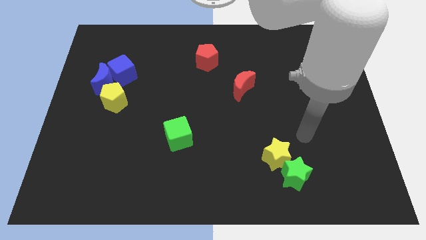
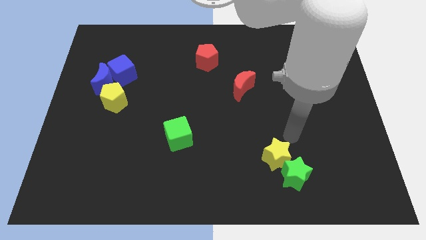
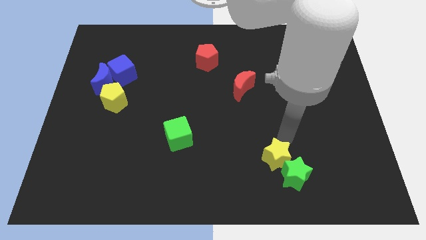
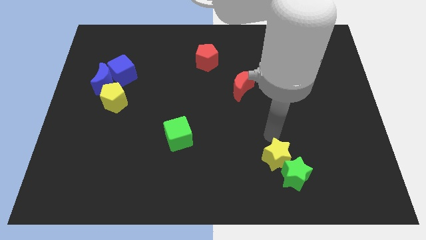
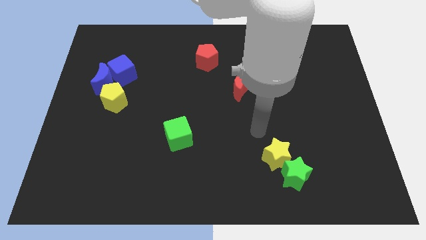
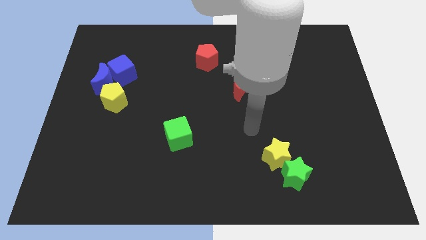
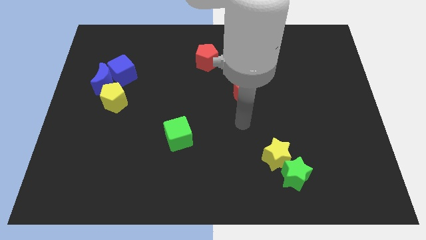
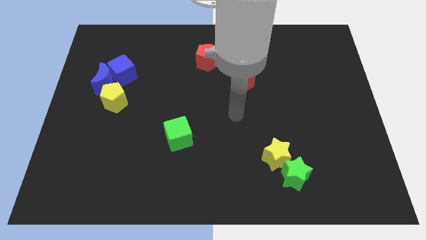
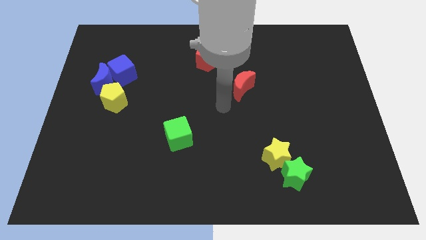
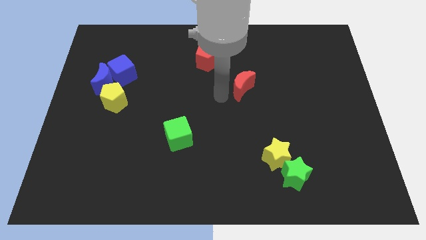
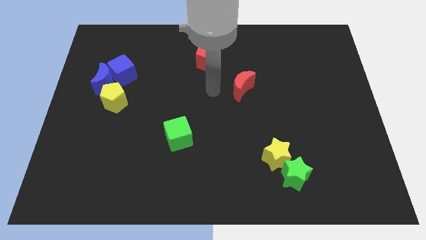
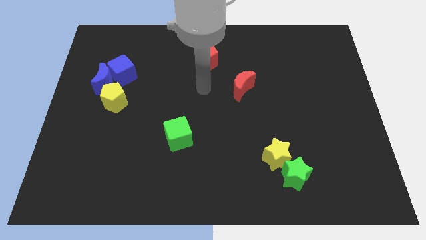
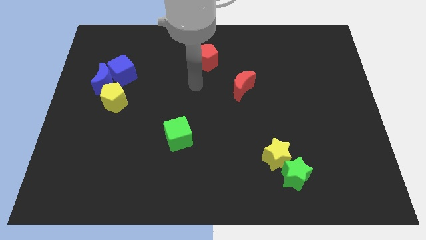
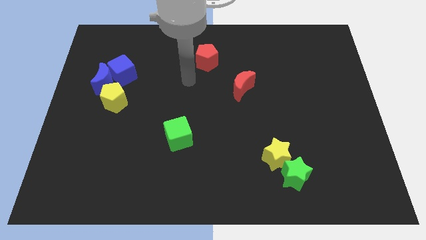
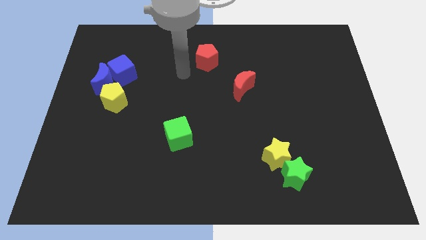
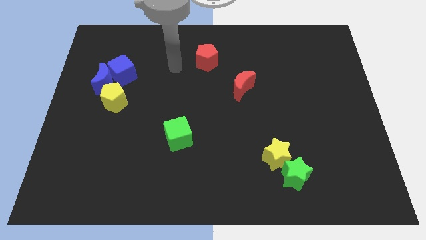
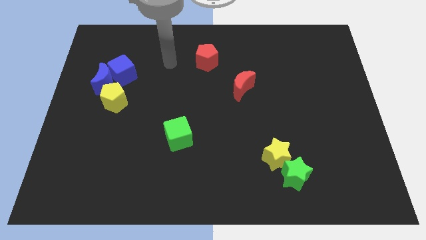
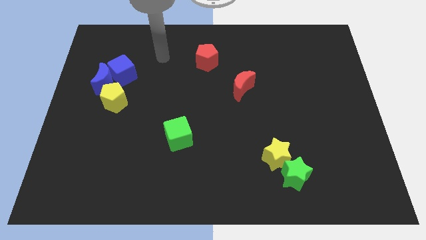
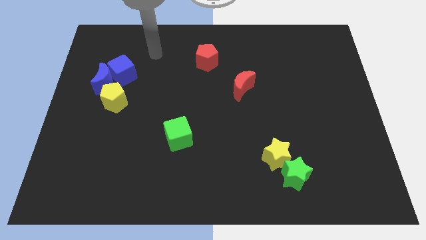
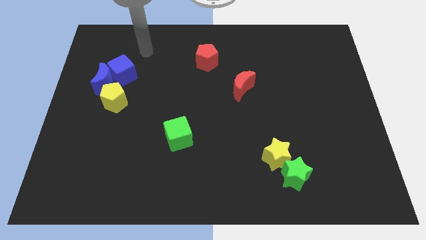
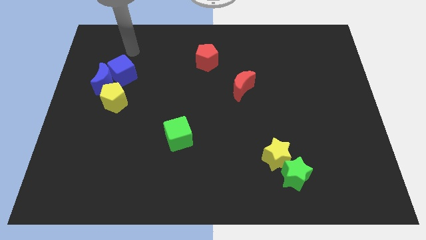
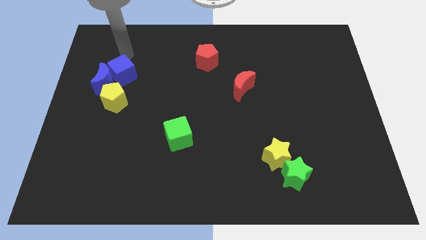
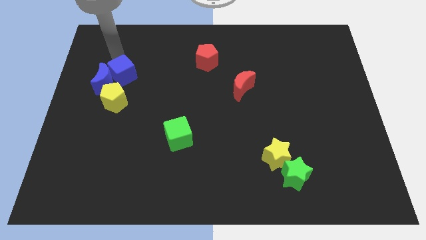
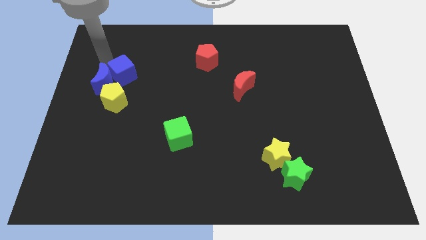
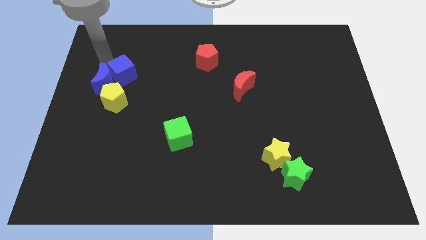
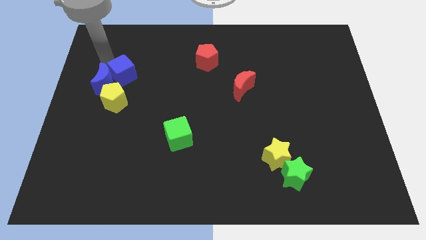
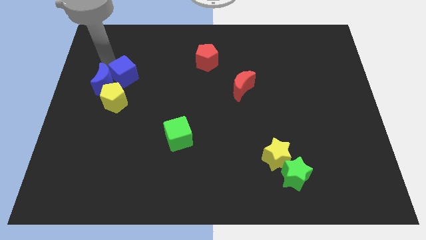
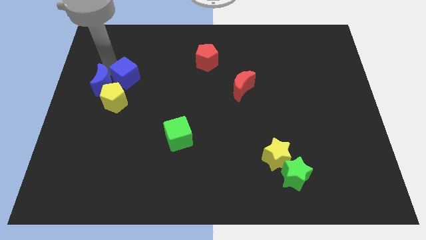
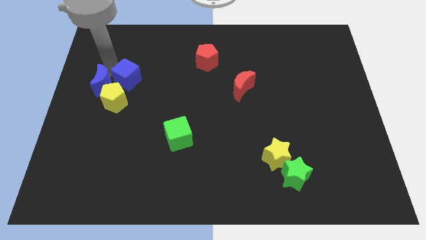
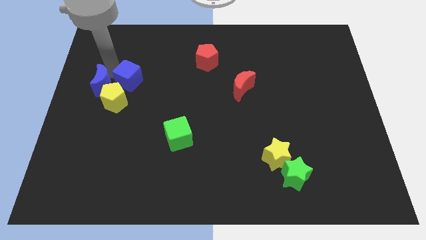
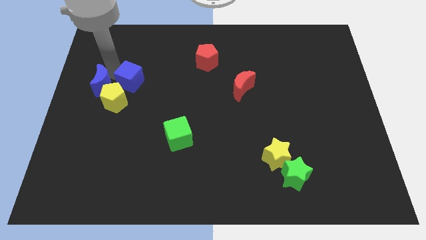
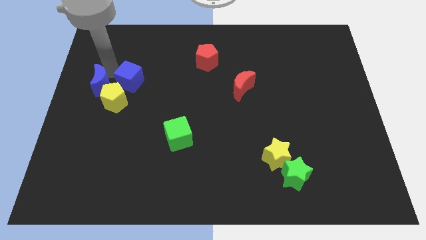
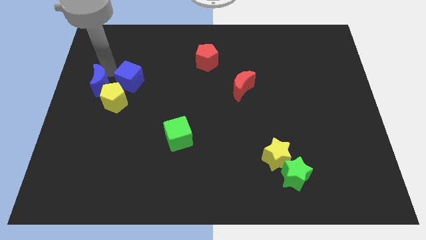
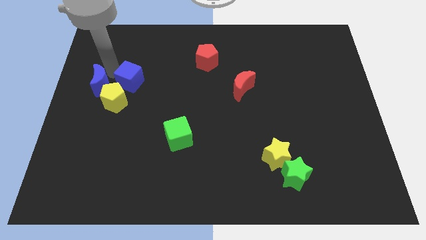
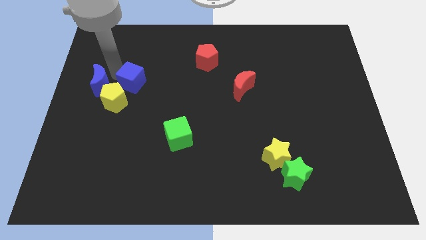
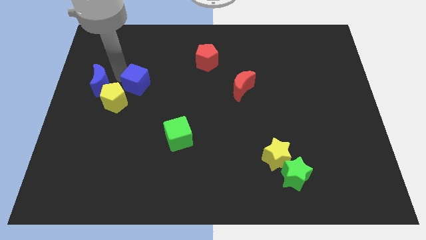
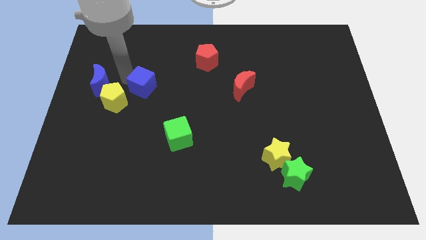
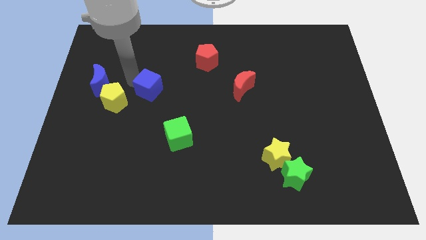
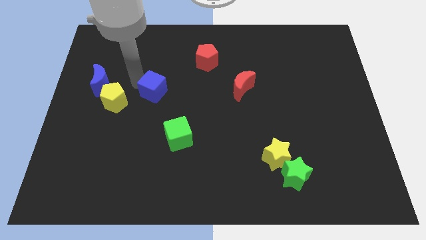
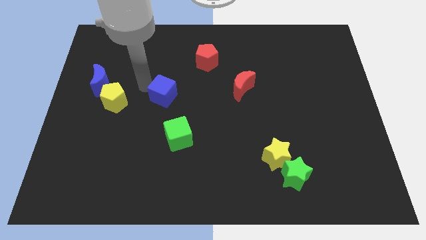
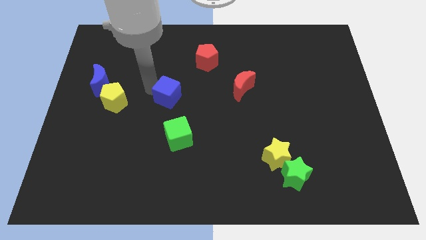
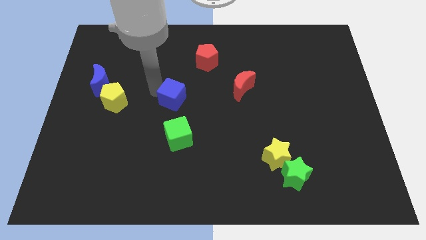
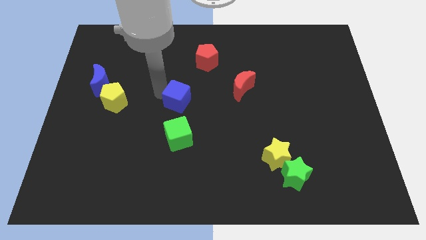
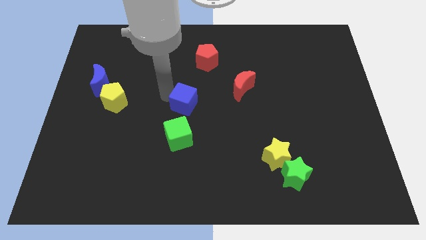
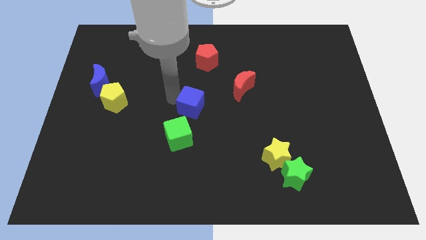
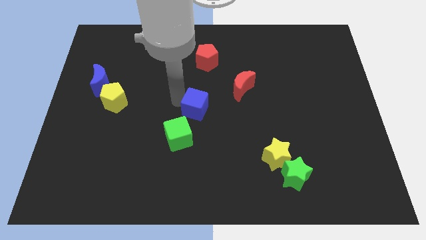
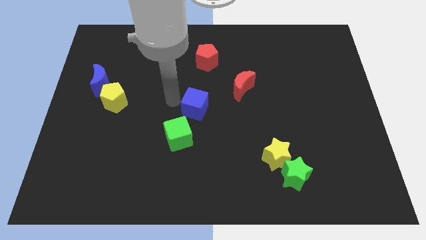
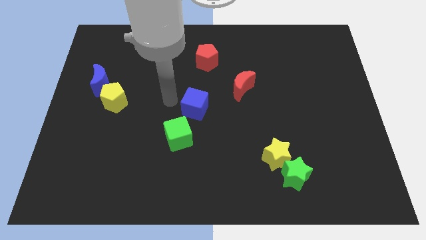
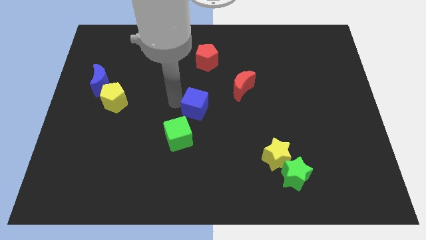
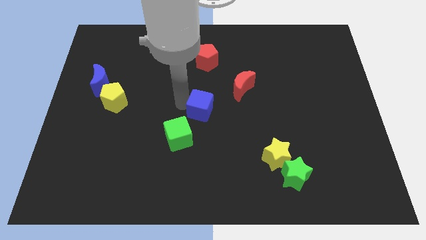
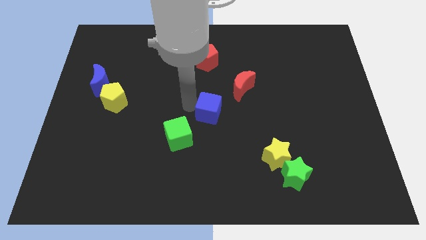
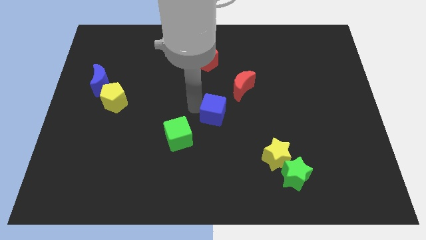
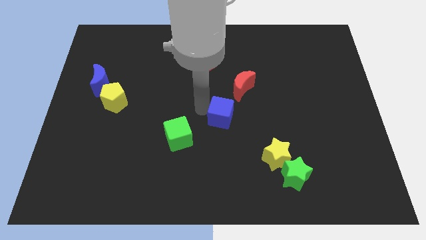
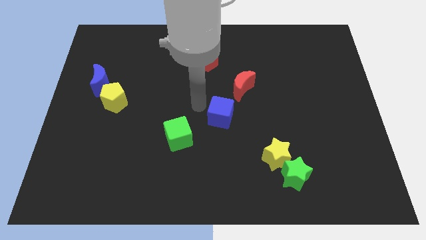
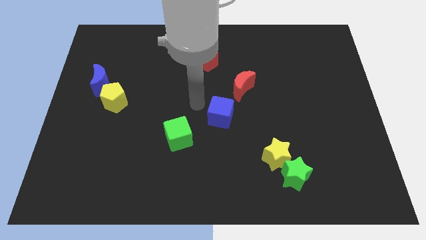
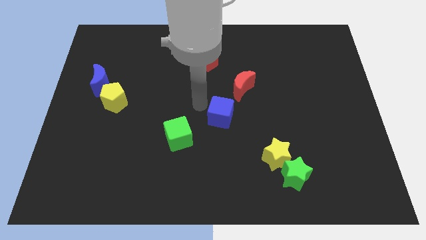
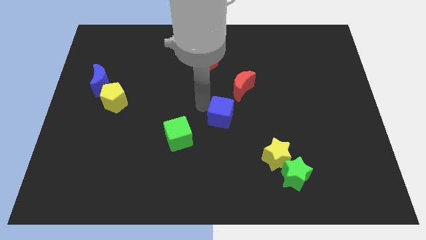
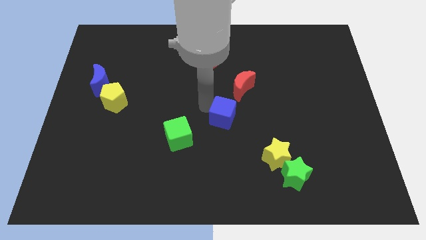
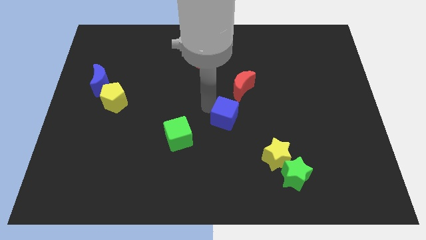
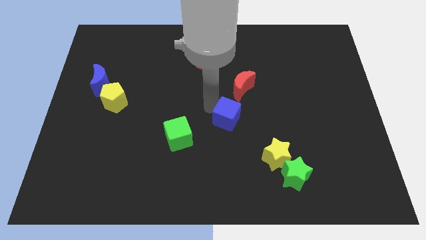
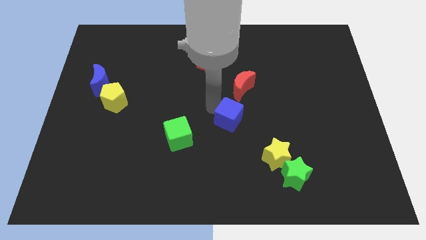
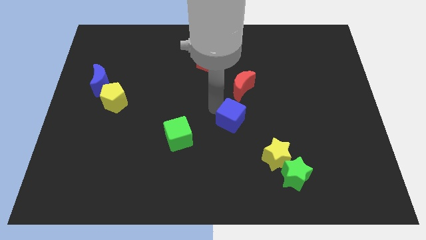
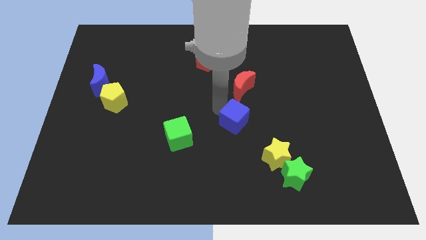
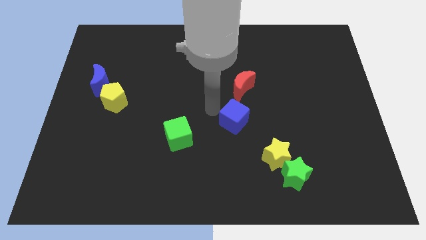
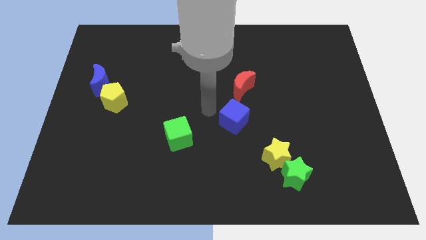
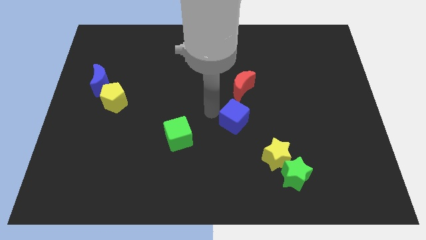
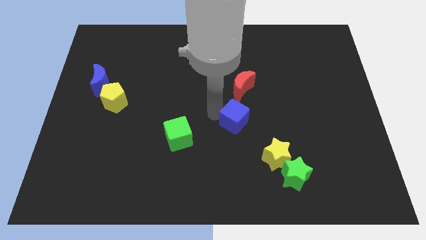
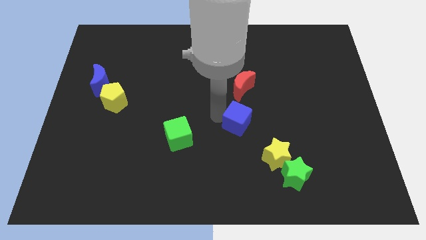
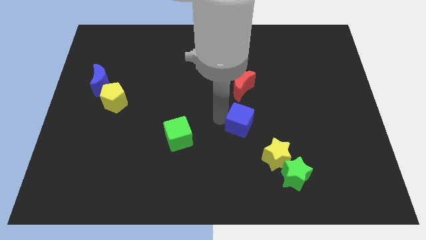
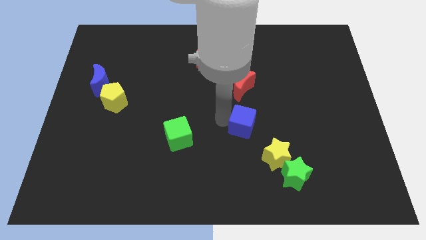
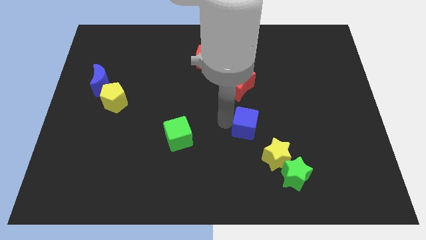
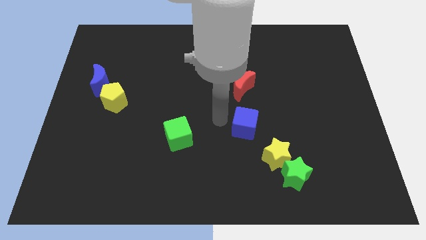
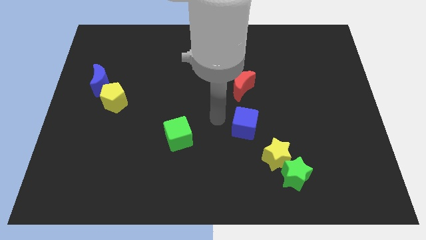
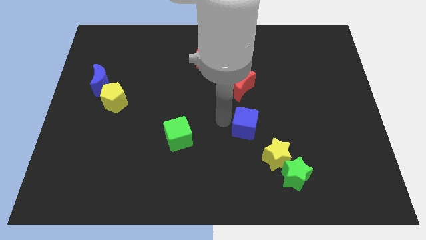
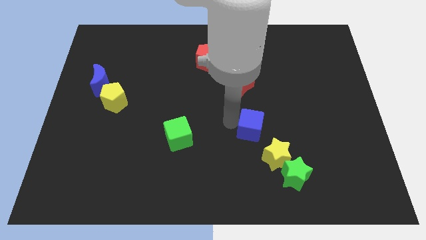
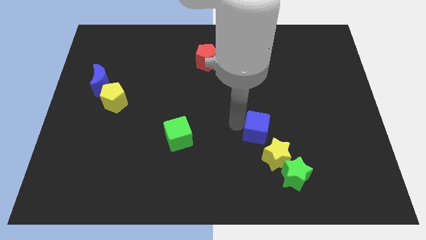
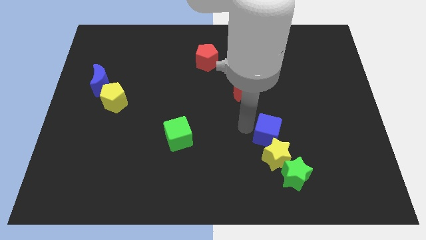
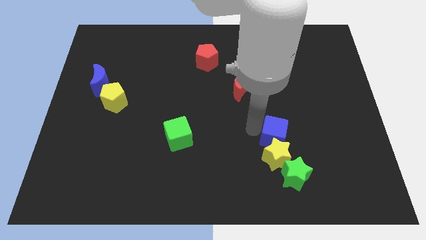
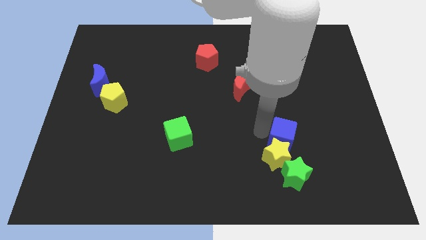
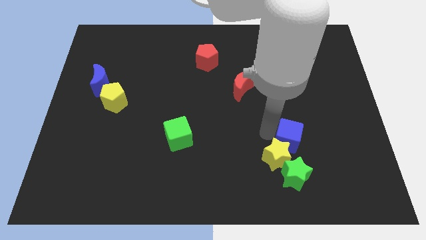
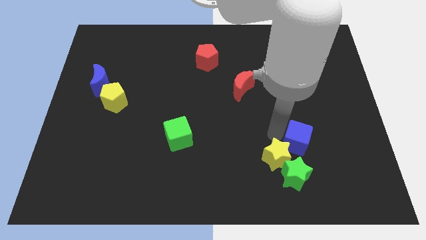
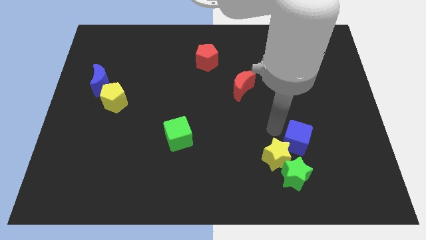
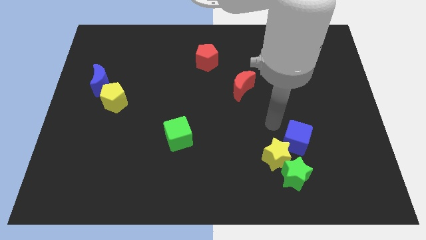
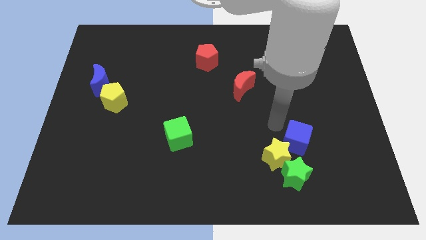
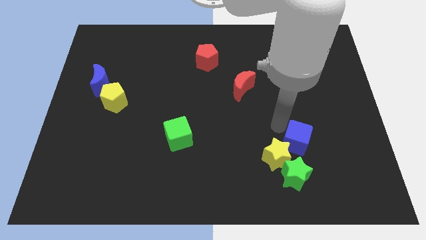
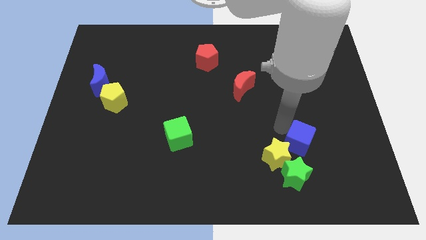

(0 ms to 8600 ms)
push the blue cube diagonally up and to the right of the green star
